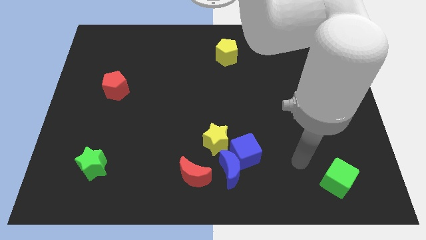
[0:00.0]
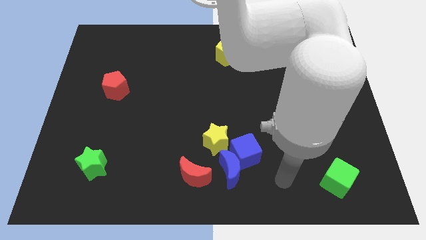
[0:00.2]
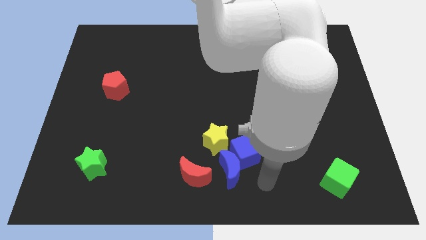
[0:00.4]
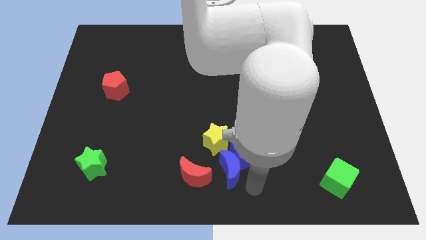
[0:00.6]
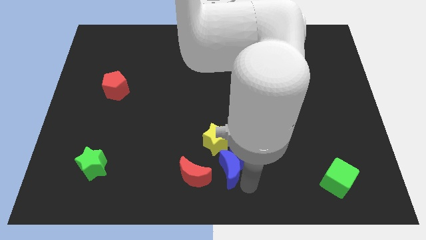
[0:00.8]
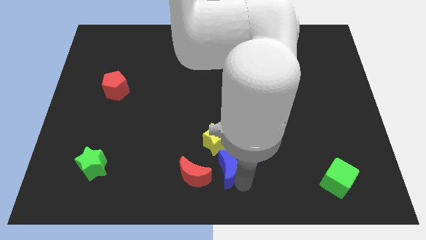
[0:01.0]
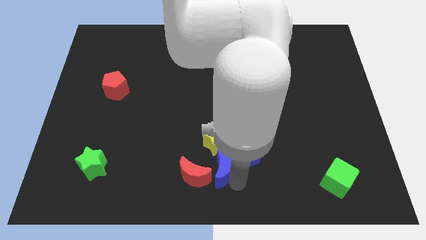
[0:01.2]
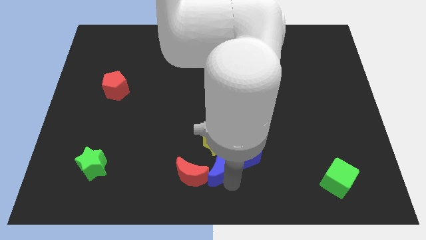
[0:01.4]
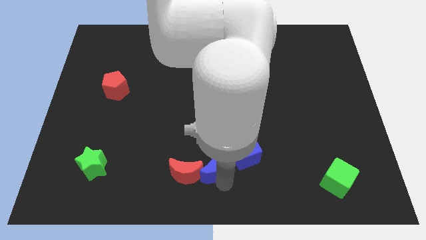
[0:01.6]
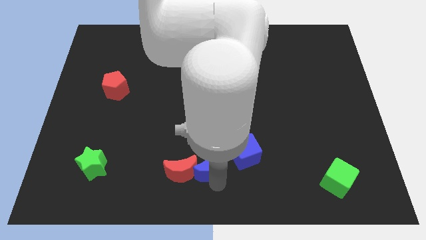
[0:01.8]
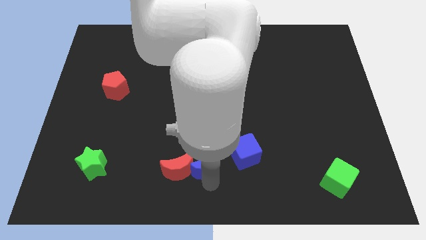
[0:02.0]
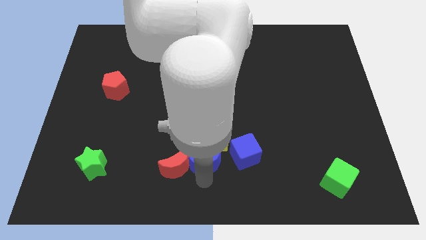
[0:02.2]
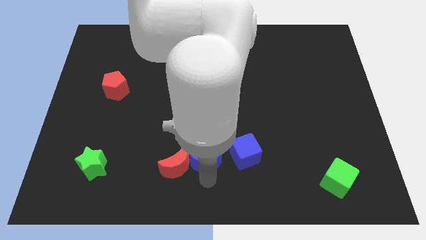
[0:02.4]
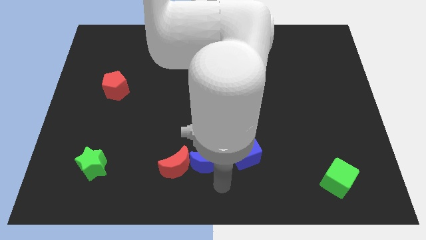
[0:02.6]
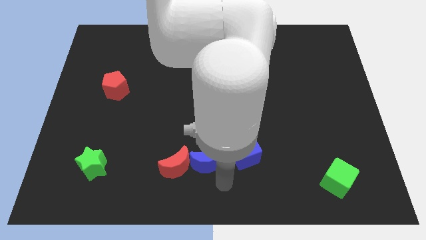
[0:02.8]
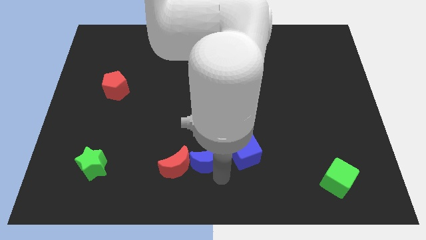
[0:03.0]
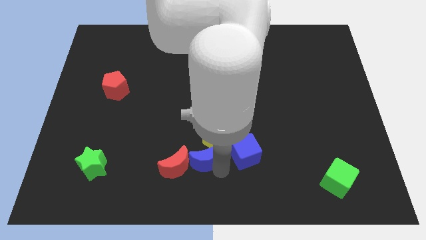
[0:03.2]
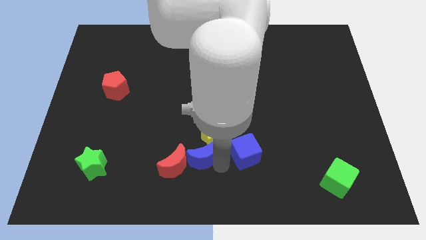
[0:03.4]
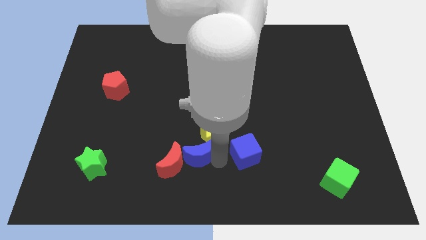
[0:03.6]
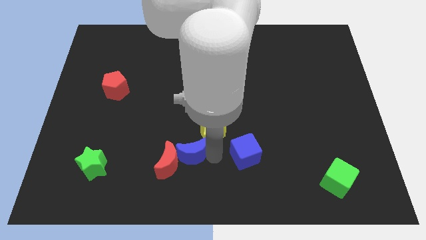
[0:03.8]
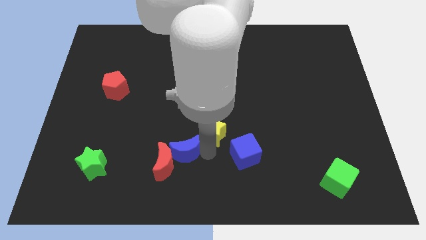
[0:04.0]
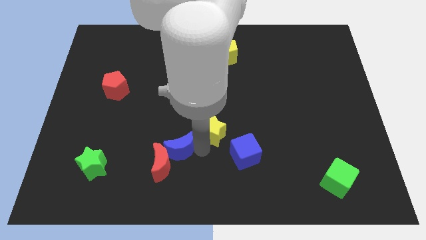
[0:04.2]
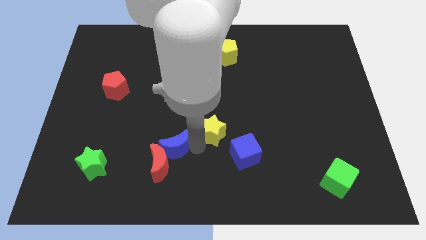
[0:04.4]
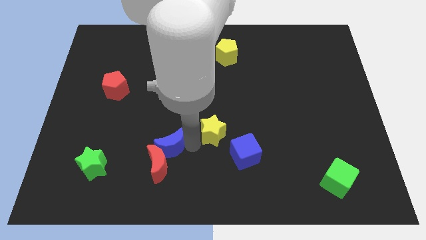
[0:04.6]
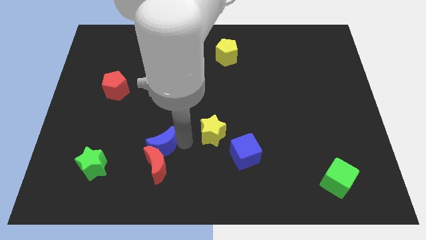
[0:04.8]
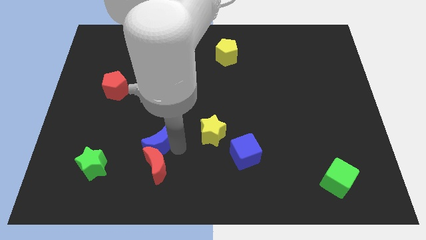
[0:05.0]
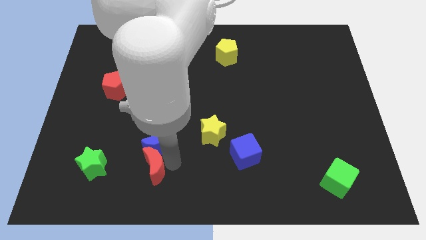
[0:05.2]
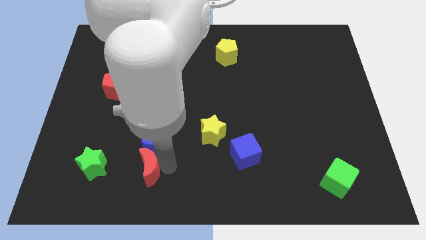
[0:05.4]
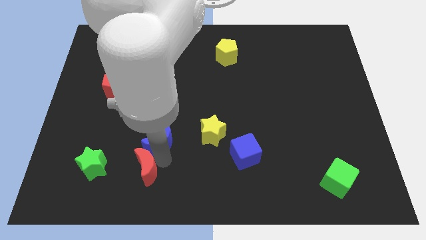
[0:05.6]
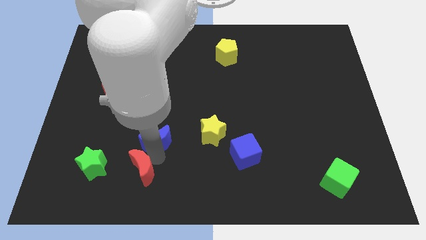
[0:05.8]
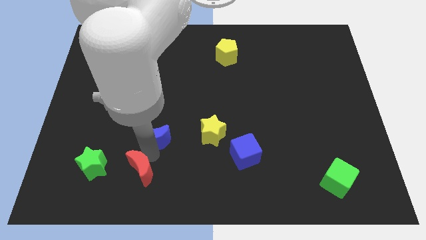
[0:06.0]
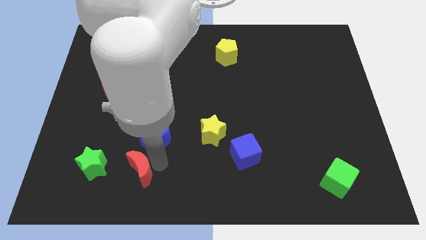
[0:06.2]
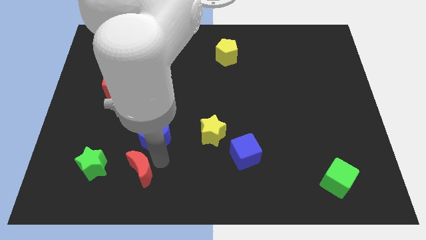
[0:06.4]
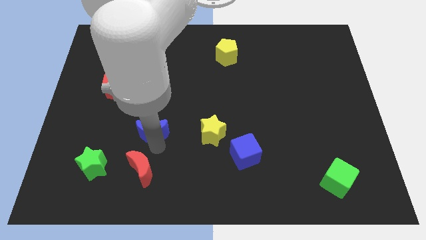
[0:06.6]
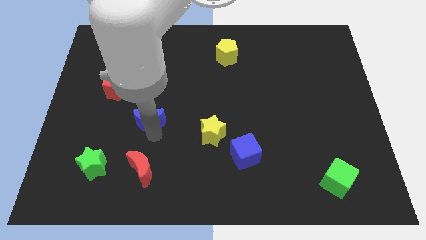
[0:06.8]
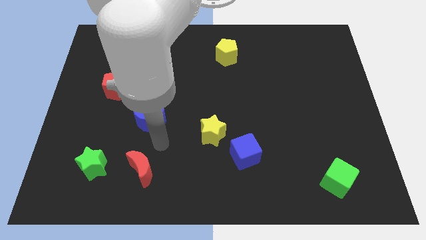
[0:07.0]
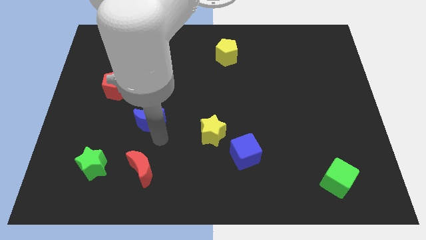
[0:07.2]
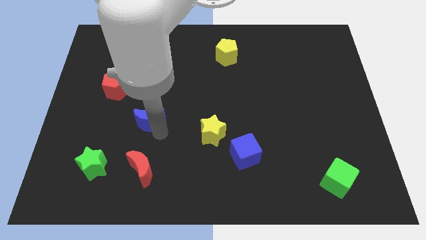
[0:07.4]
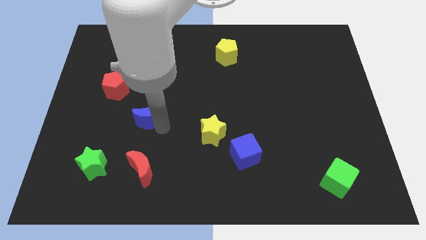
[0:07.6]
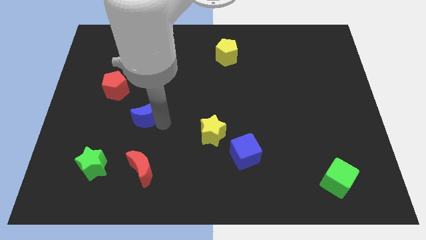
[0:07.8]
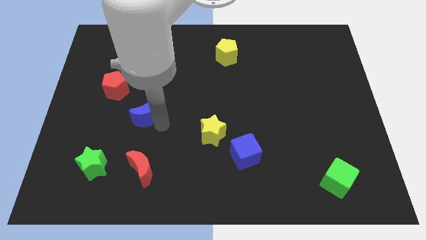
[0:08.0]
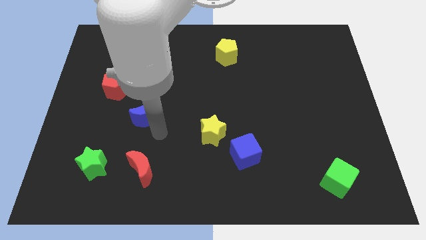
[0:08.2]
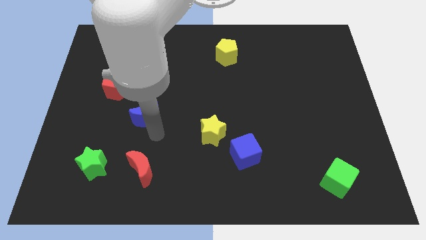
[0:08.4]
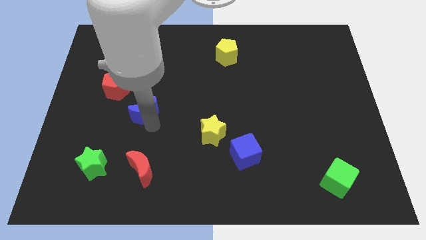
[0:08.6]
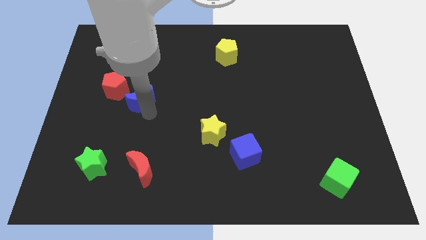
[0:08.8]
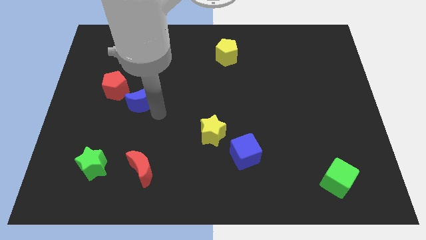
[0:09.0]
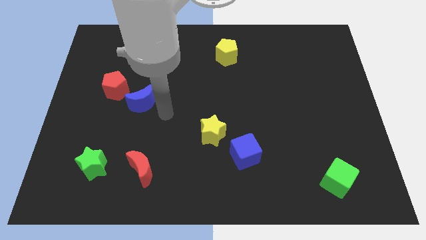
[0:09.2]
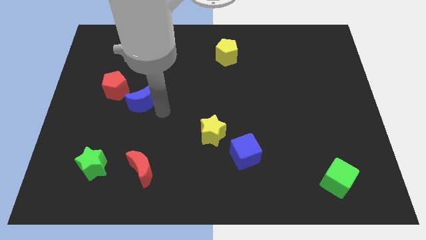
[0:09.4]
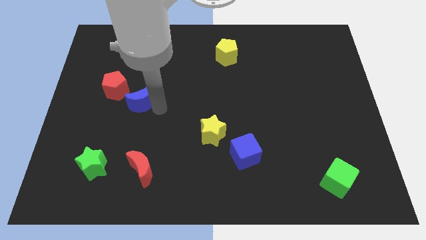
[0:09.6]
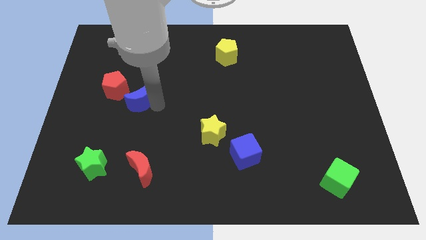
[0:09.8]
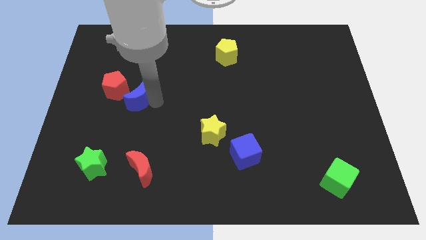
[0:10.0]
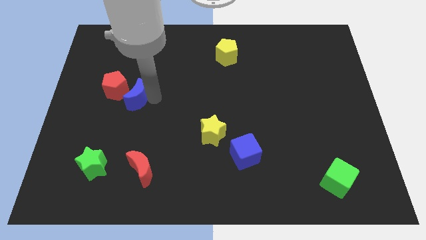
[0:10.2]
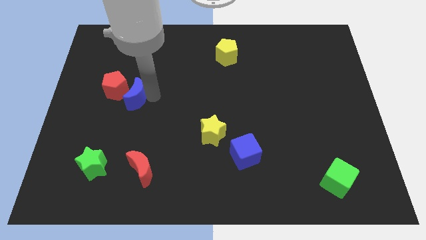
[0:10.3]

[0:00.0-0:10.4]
put the blue moon next to the red pentagon

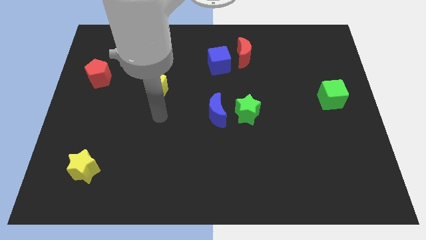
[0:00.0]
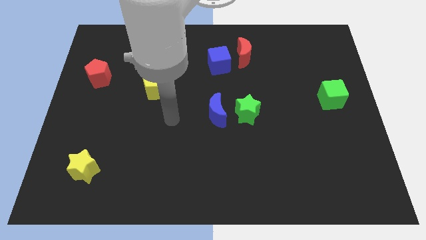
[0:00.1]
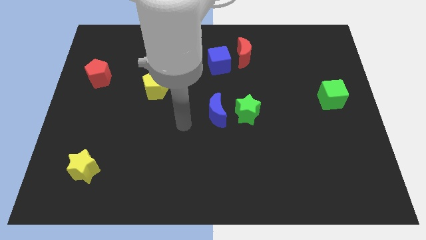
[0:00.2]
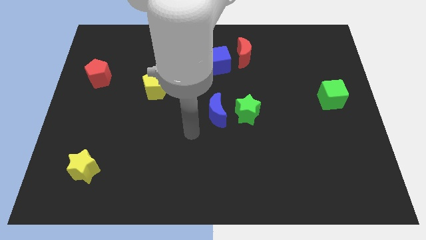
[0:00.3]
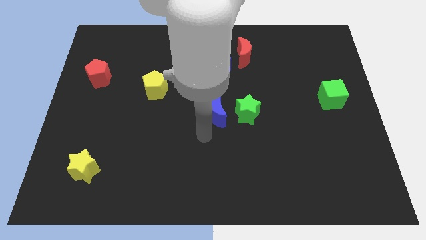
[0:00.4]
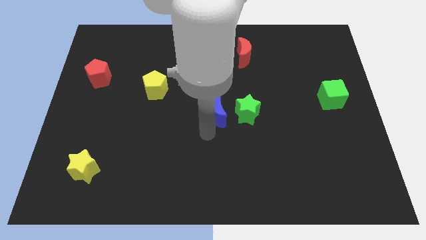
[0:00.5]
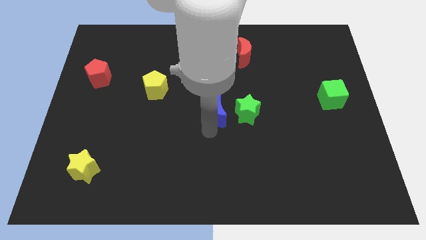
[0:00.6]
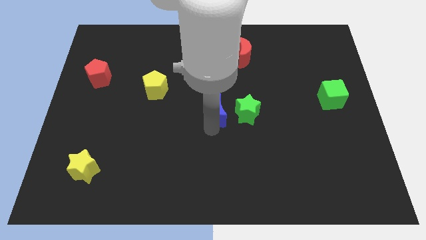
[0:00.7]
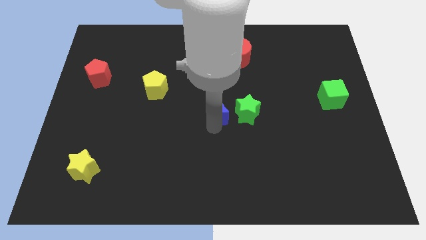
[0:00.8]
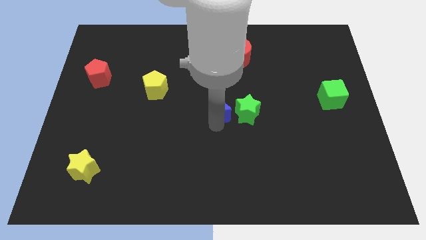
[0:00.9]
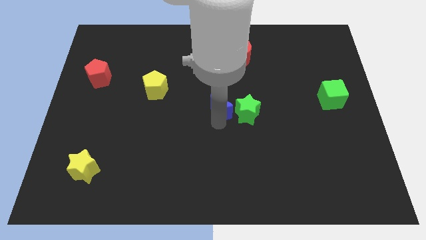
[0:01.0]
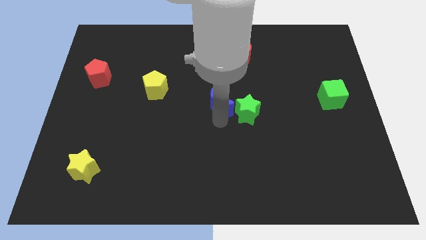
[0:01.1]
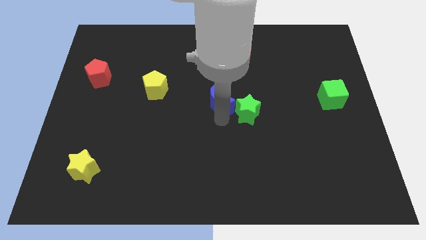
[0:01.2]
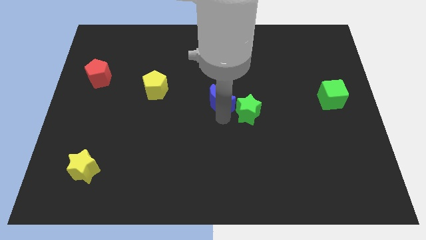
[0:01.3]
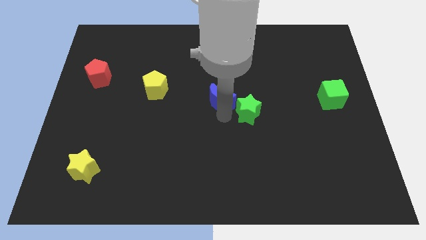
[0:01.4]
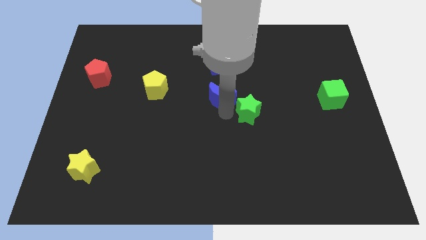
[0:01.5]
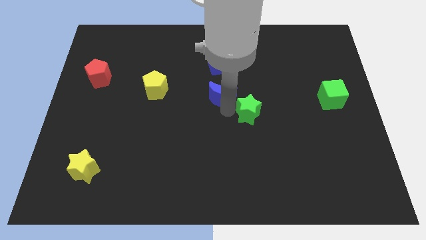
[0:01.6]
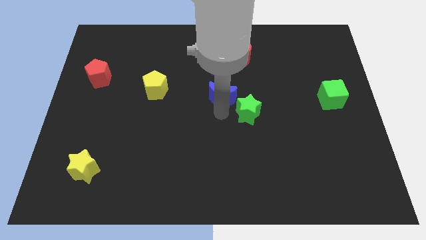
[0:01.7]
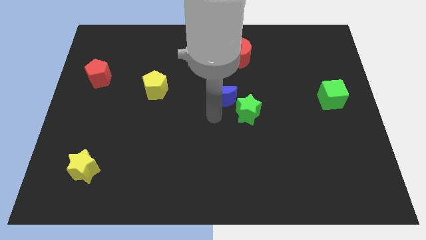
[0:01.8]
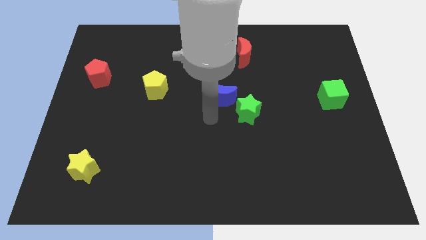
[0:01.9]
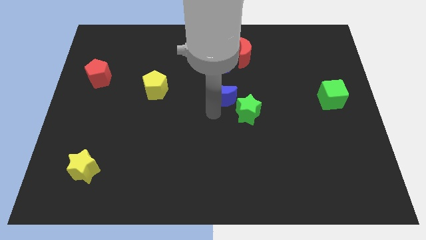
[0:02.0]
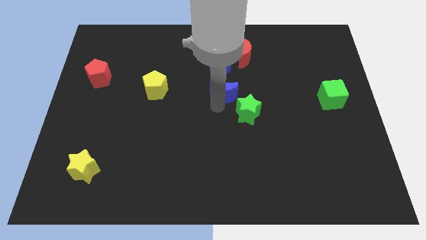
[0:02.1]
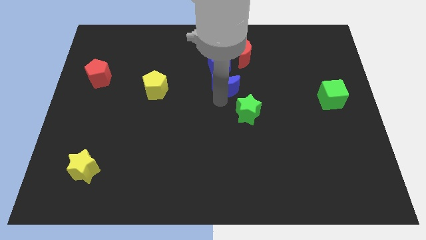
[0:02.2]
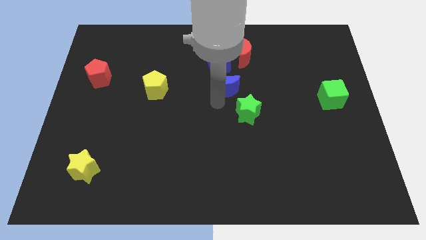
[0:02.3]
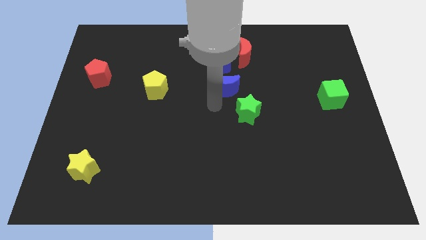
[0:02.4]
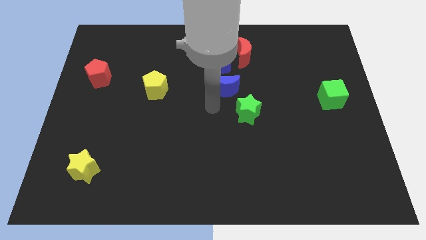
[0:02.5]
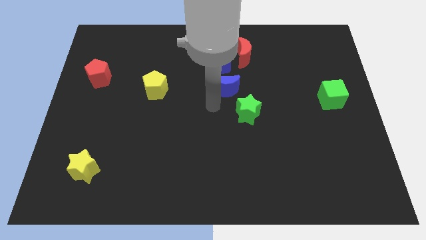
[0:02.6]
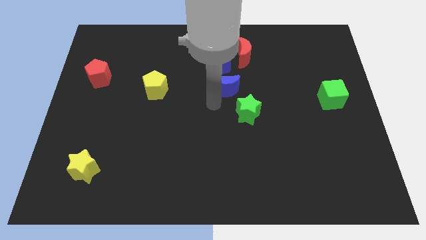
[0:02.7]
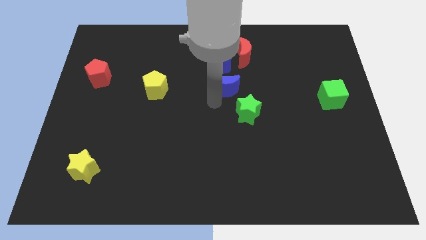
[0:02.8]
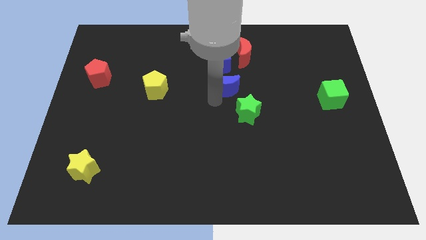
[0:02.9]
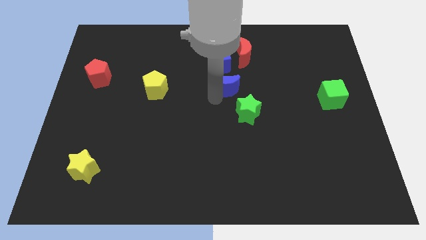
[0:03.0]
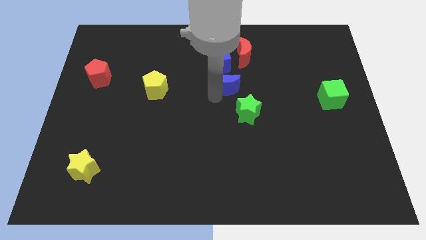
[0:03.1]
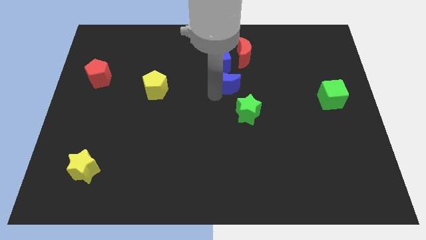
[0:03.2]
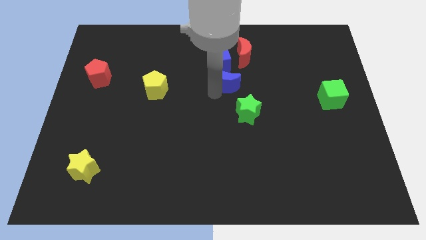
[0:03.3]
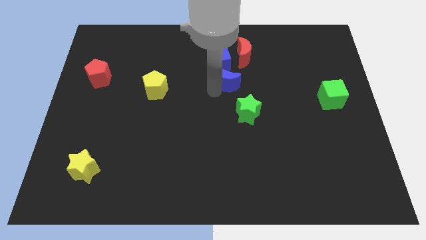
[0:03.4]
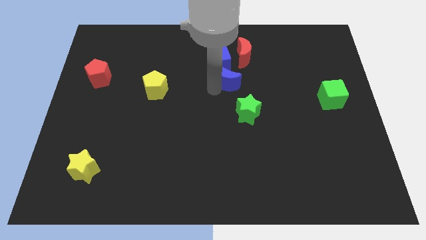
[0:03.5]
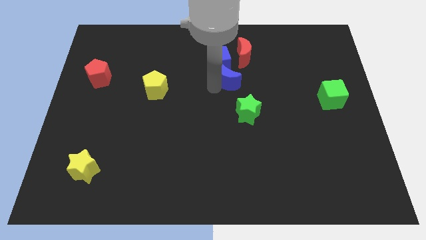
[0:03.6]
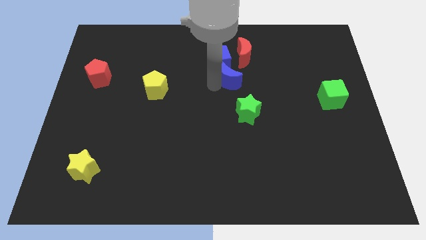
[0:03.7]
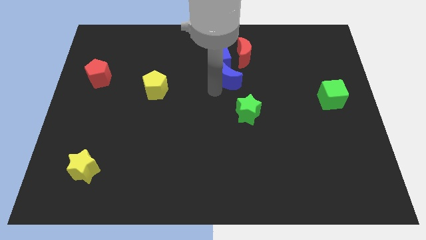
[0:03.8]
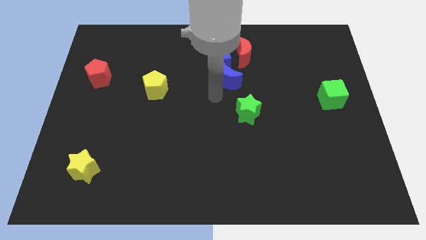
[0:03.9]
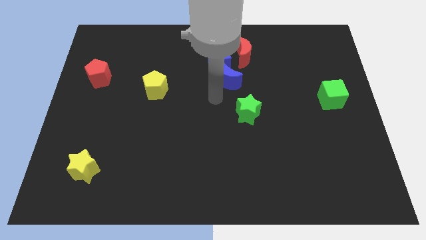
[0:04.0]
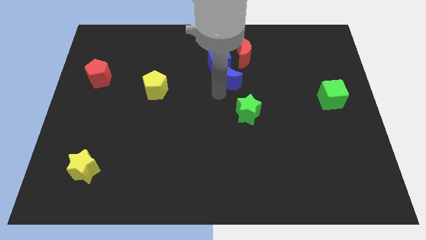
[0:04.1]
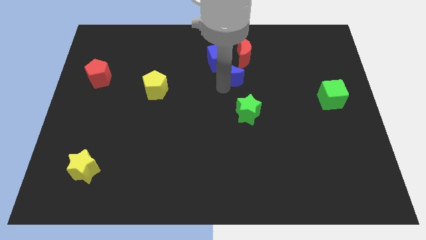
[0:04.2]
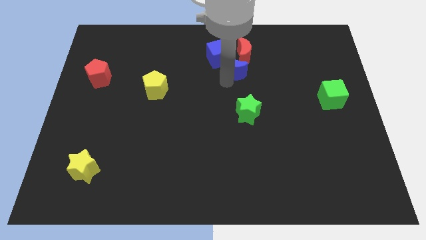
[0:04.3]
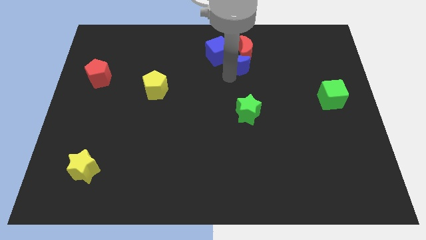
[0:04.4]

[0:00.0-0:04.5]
put the blue moon next to the red moon
